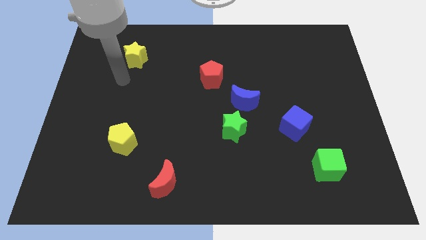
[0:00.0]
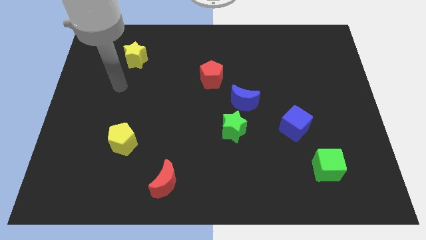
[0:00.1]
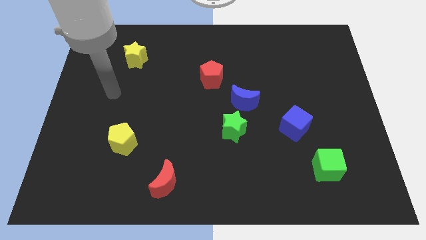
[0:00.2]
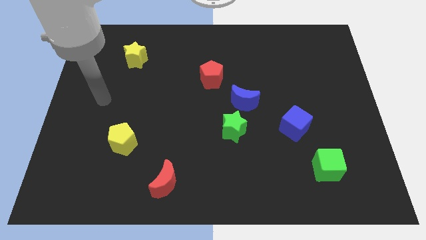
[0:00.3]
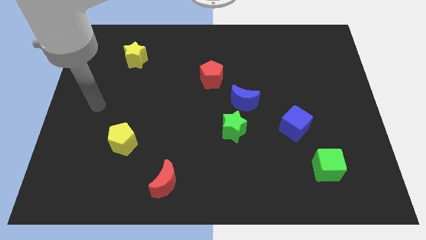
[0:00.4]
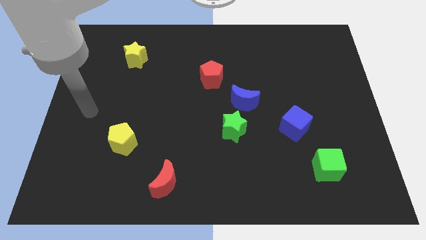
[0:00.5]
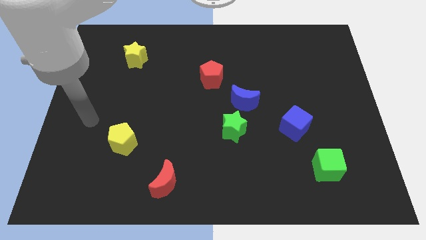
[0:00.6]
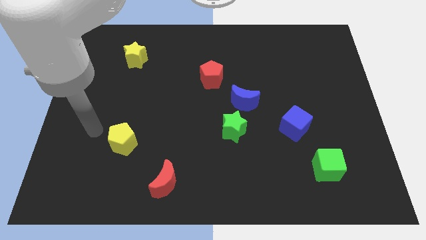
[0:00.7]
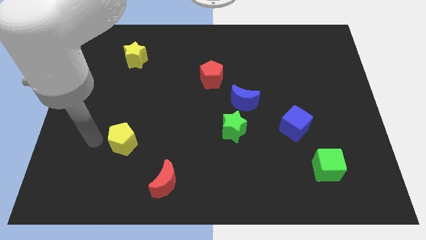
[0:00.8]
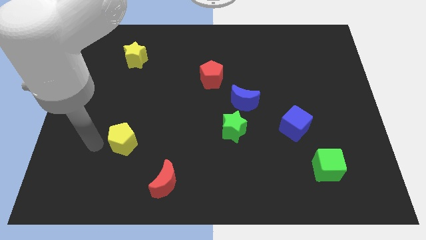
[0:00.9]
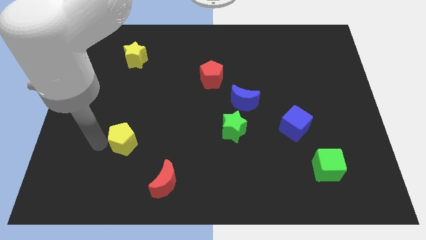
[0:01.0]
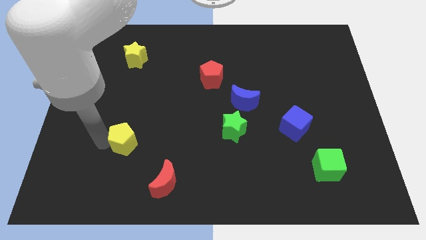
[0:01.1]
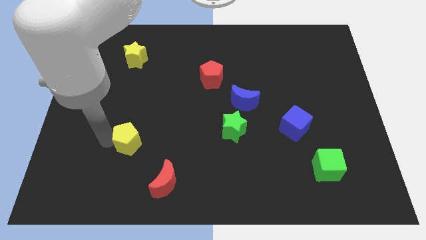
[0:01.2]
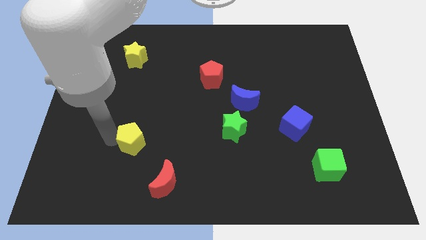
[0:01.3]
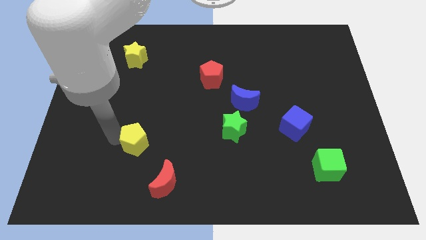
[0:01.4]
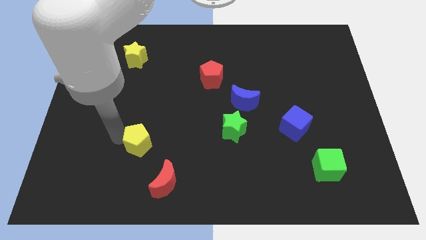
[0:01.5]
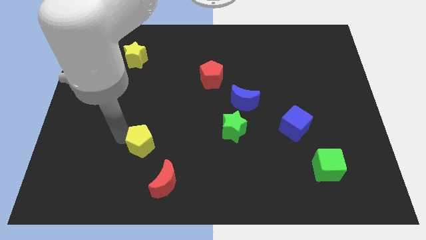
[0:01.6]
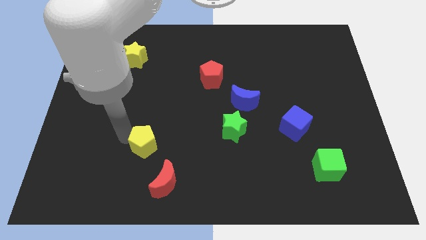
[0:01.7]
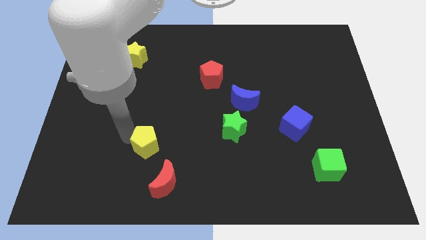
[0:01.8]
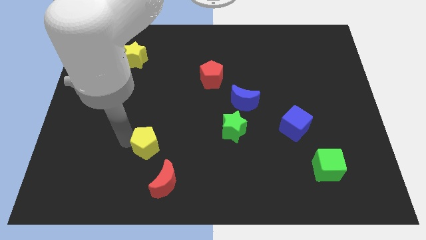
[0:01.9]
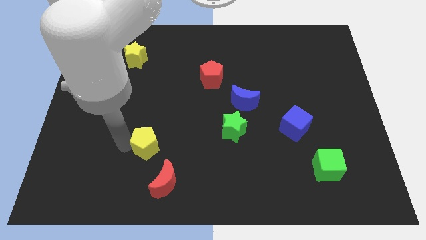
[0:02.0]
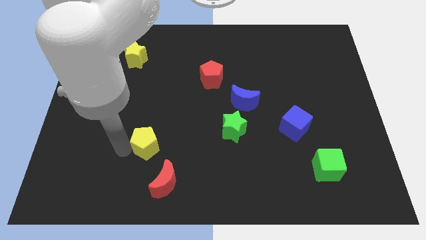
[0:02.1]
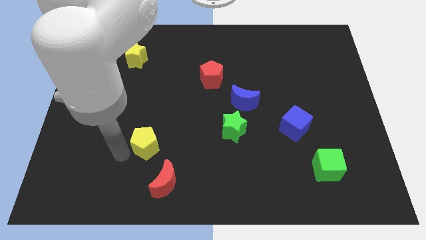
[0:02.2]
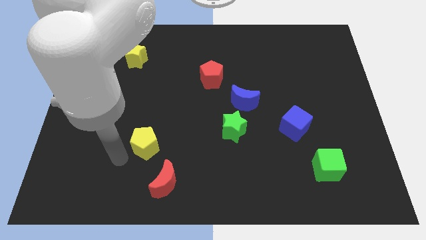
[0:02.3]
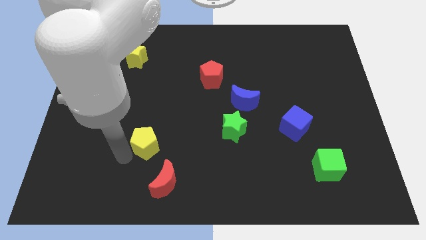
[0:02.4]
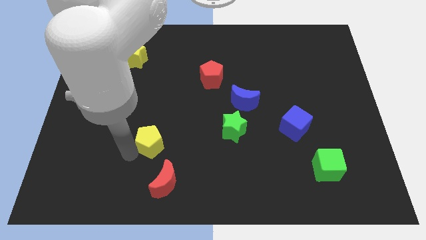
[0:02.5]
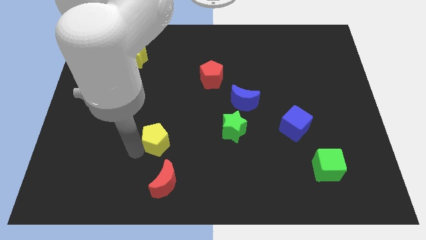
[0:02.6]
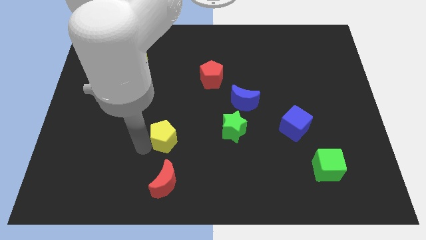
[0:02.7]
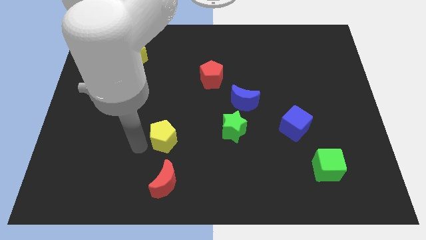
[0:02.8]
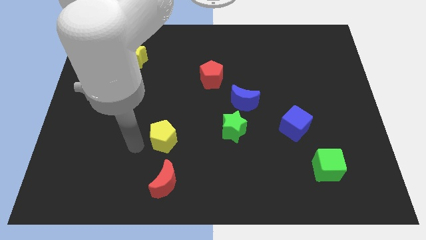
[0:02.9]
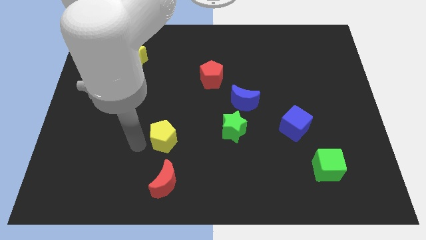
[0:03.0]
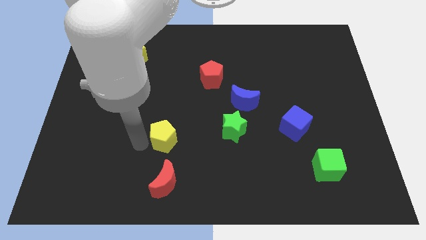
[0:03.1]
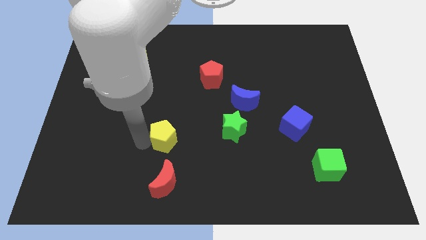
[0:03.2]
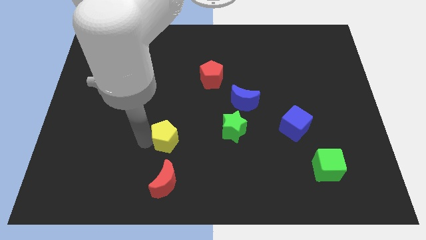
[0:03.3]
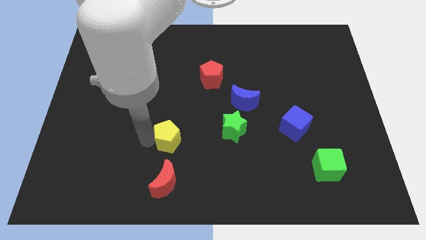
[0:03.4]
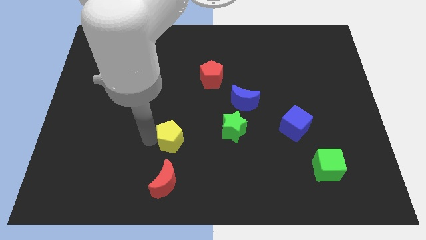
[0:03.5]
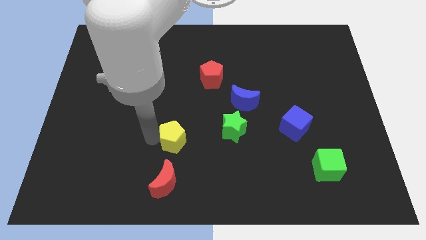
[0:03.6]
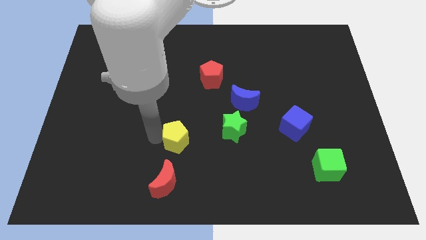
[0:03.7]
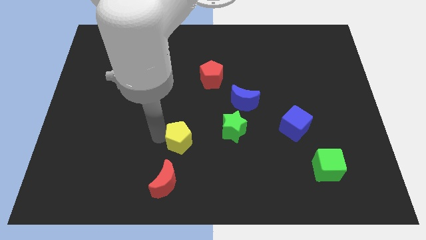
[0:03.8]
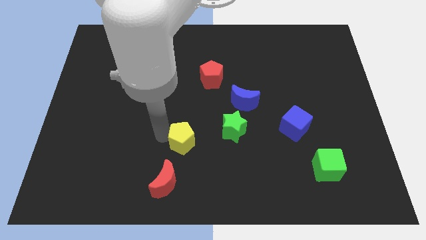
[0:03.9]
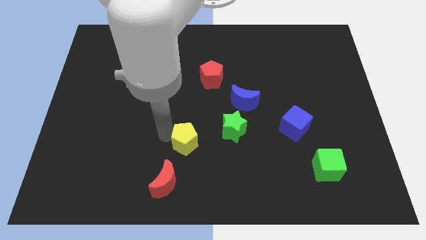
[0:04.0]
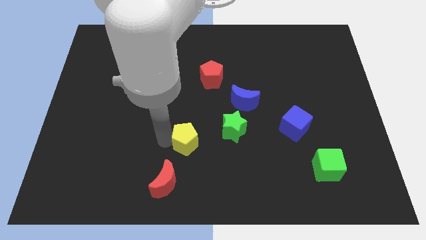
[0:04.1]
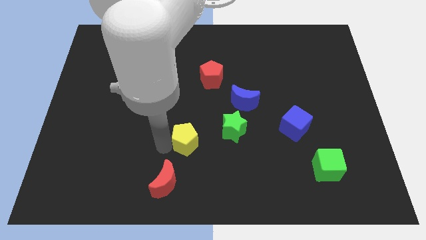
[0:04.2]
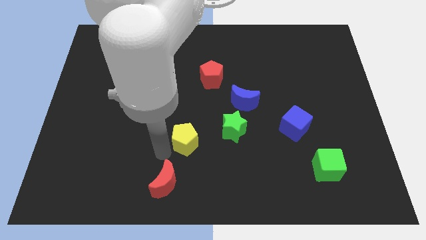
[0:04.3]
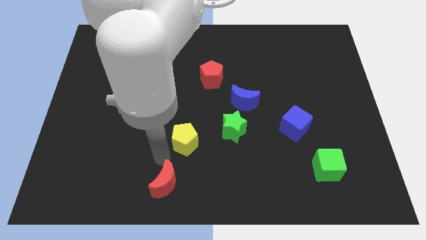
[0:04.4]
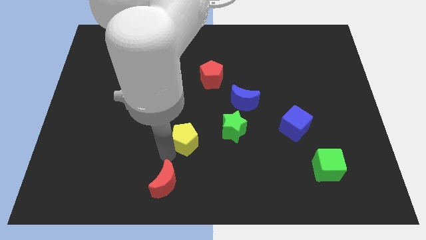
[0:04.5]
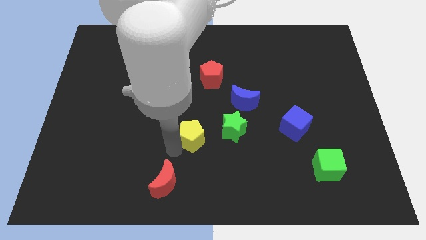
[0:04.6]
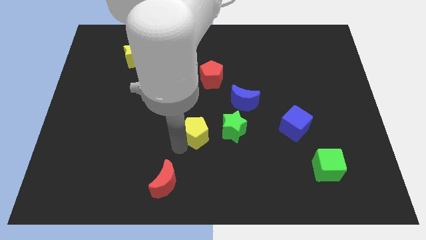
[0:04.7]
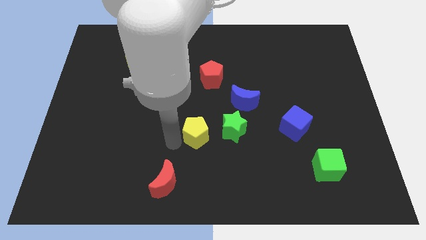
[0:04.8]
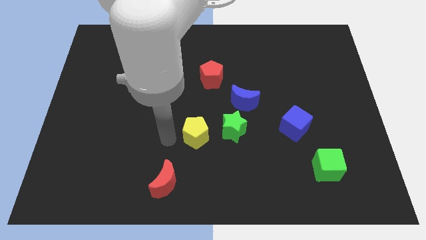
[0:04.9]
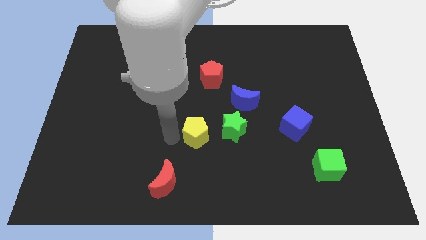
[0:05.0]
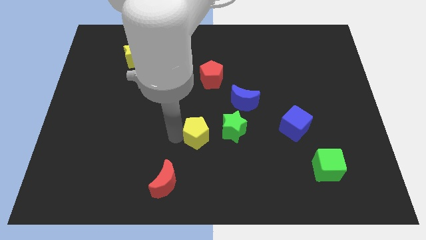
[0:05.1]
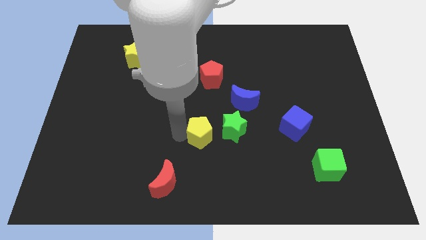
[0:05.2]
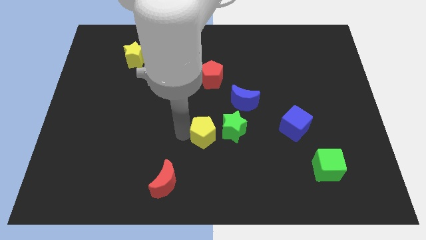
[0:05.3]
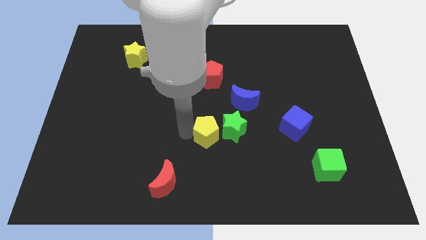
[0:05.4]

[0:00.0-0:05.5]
push the yellow pentagon to the green star

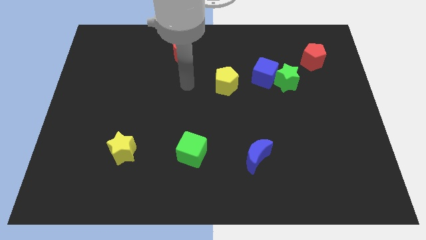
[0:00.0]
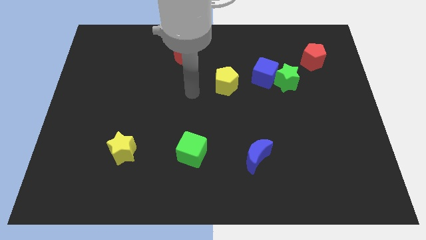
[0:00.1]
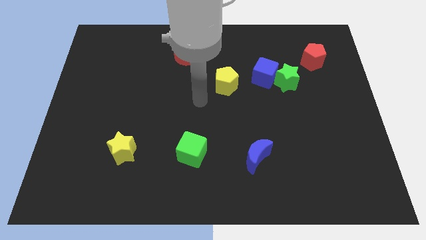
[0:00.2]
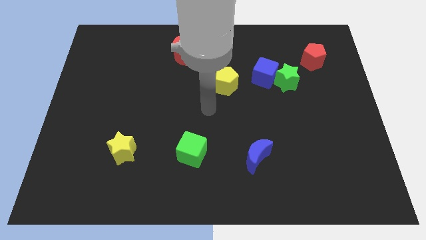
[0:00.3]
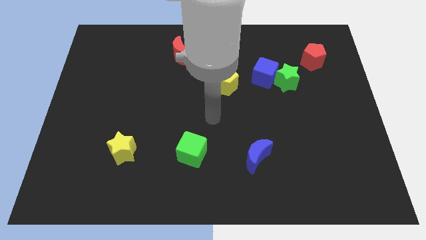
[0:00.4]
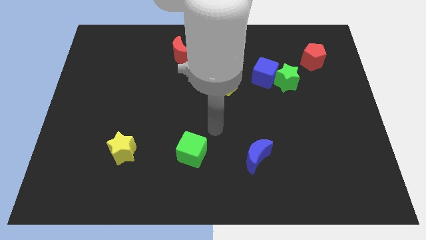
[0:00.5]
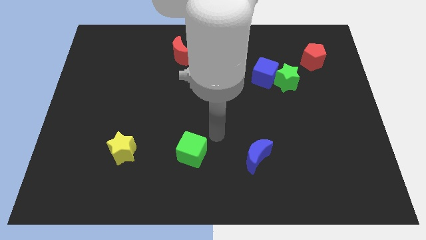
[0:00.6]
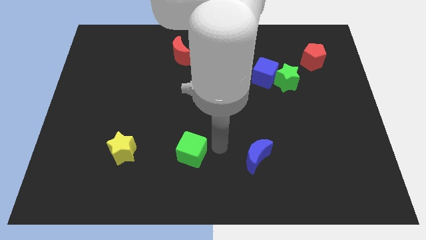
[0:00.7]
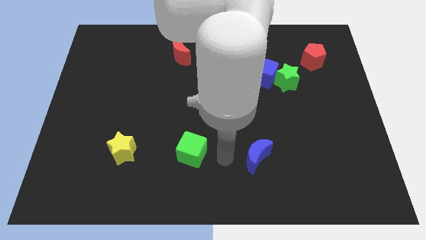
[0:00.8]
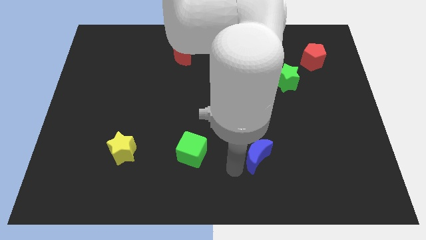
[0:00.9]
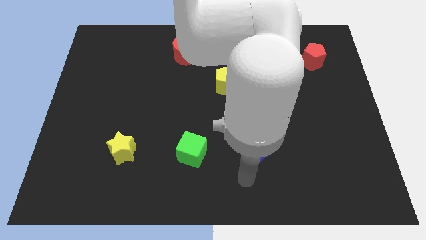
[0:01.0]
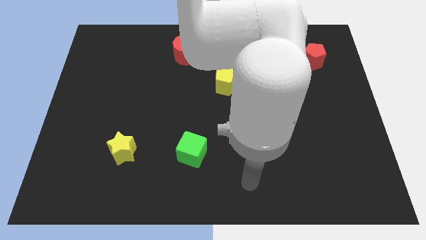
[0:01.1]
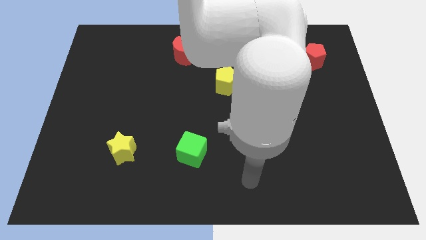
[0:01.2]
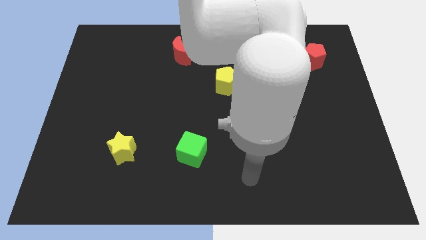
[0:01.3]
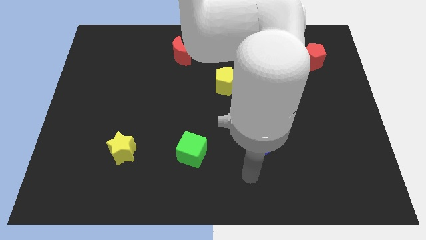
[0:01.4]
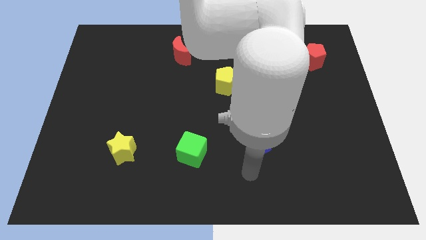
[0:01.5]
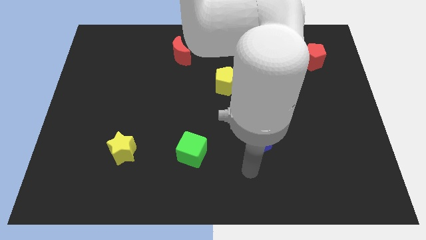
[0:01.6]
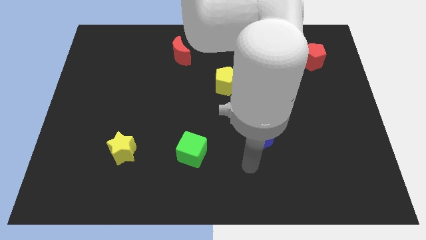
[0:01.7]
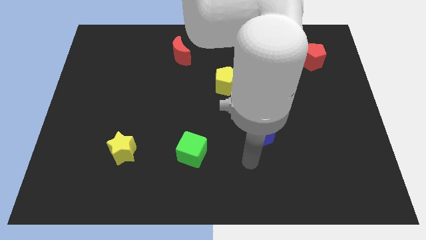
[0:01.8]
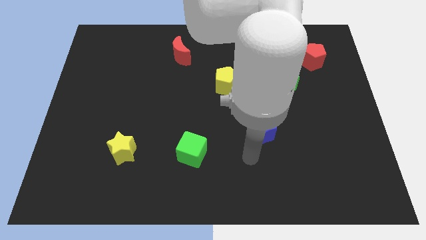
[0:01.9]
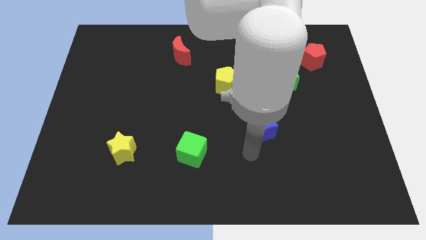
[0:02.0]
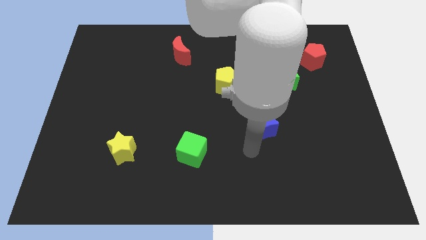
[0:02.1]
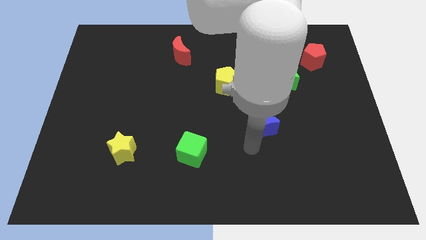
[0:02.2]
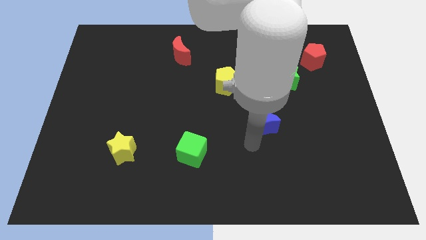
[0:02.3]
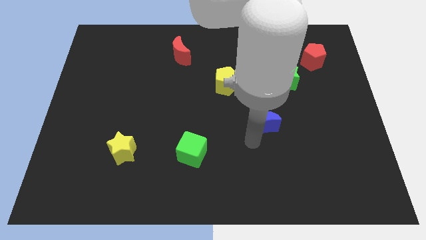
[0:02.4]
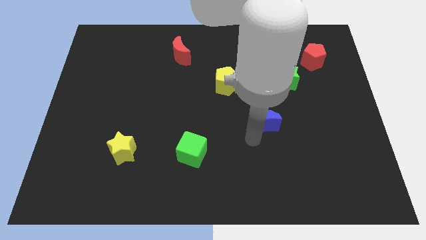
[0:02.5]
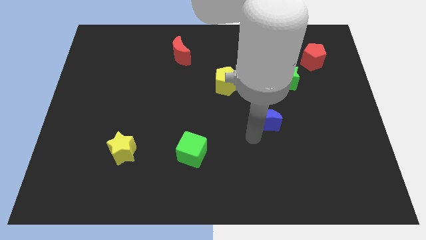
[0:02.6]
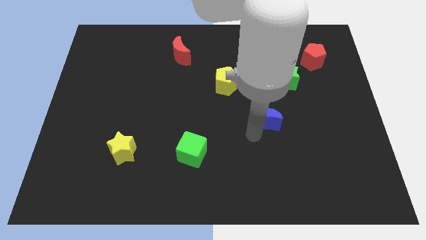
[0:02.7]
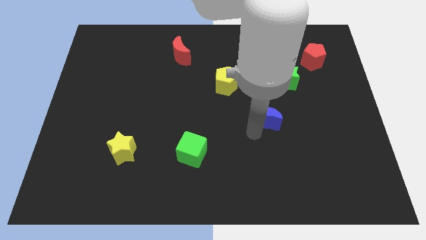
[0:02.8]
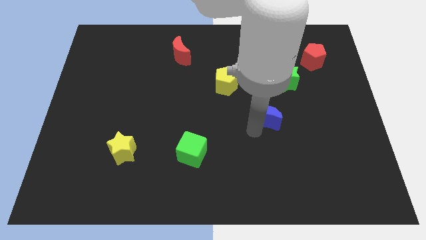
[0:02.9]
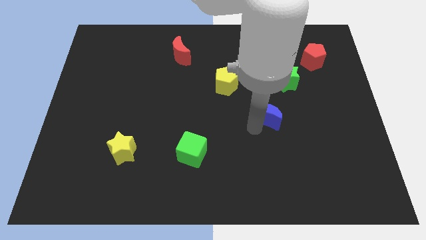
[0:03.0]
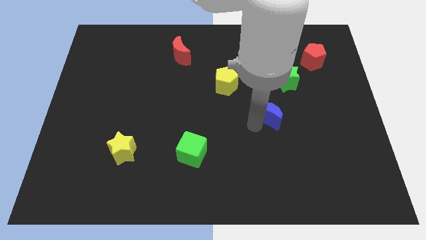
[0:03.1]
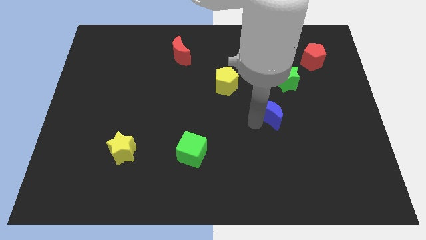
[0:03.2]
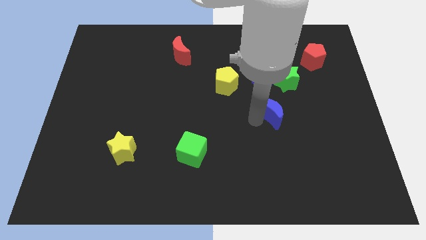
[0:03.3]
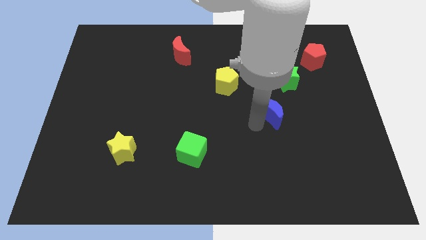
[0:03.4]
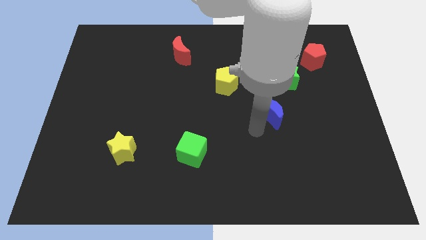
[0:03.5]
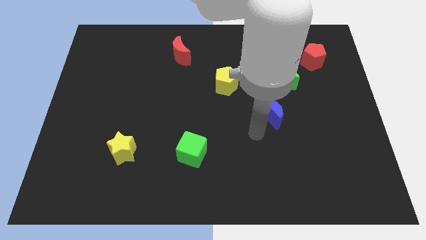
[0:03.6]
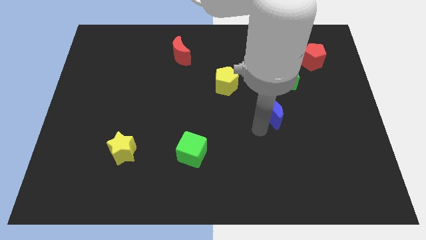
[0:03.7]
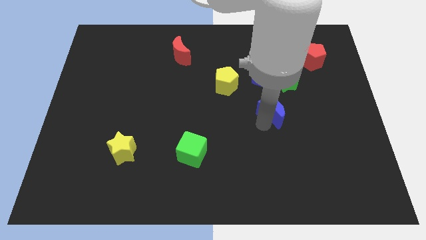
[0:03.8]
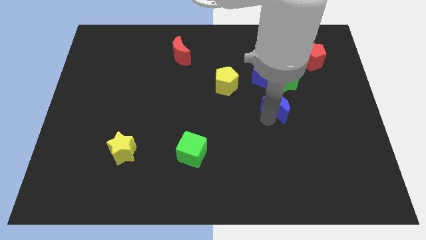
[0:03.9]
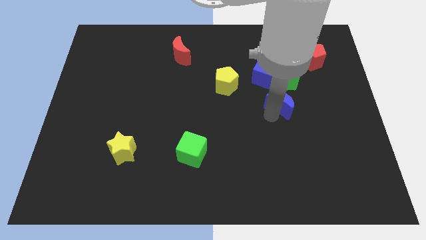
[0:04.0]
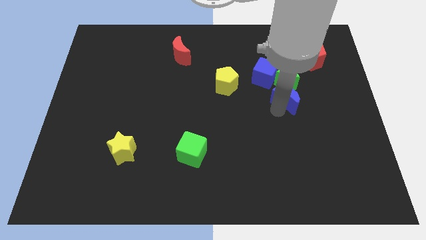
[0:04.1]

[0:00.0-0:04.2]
slide the blue moon next to the green star
